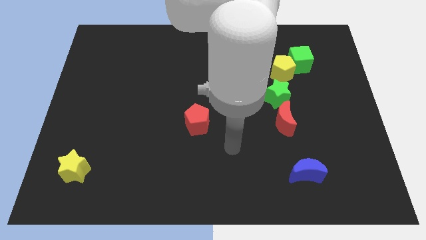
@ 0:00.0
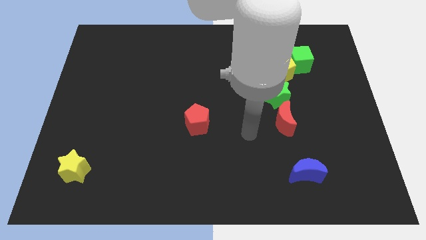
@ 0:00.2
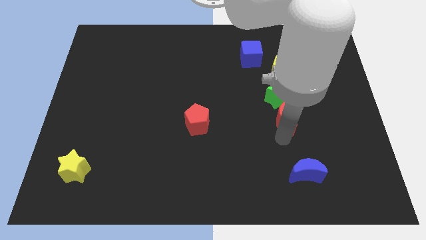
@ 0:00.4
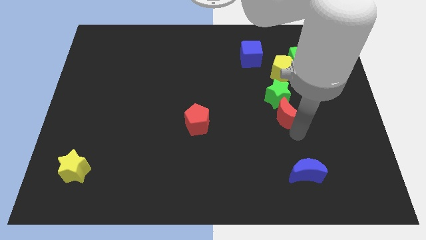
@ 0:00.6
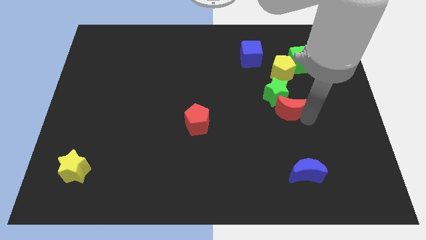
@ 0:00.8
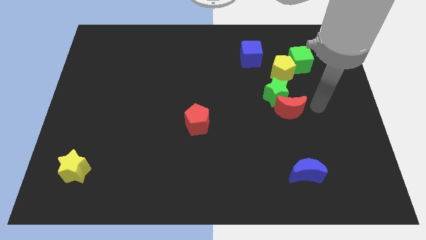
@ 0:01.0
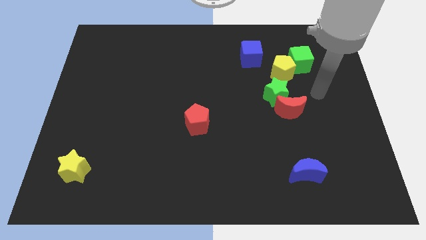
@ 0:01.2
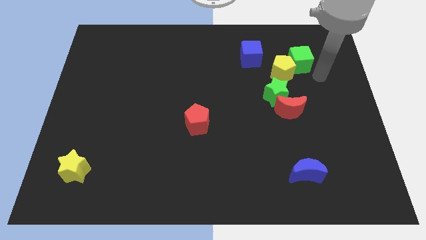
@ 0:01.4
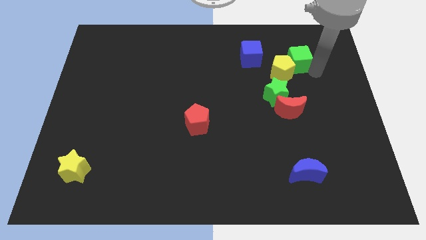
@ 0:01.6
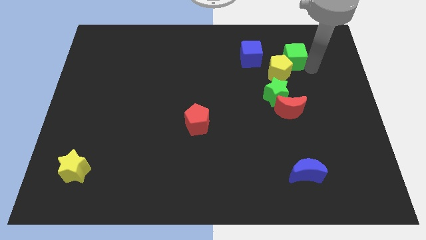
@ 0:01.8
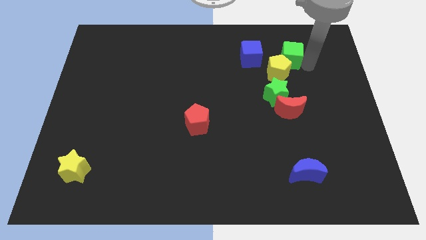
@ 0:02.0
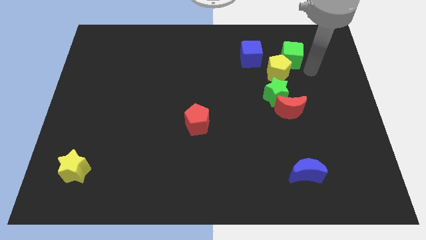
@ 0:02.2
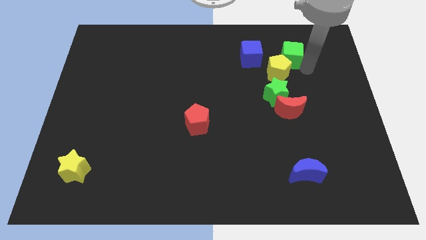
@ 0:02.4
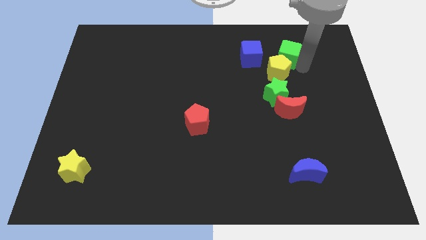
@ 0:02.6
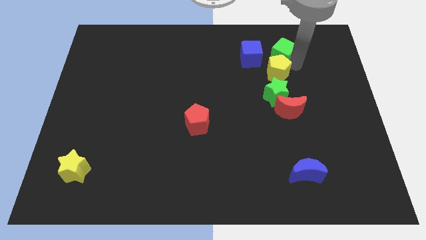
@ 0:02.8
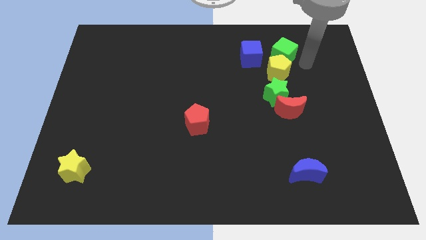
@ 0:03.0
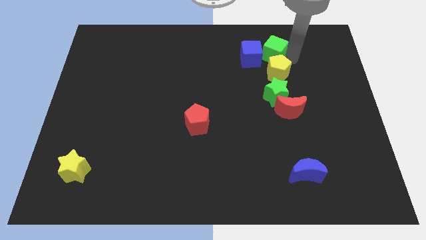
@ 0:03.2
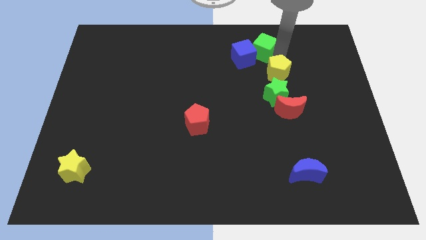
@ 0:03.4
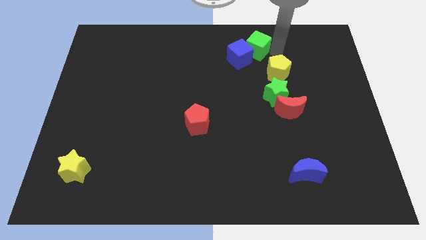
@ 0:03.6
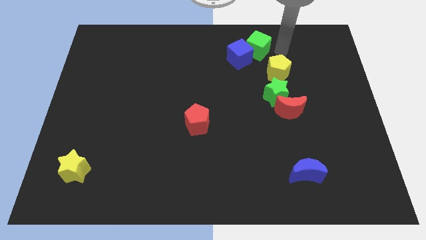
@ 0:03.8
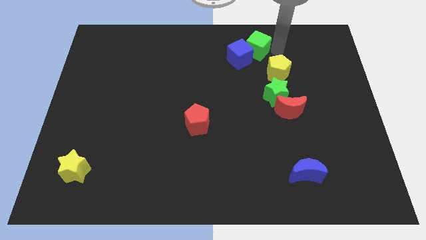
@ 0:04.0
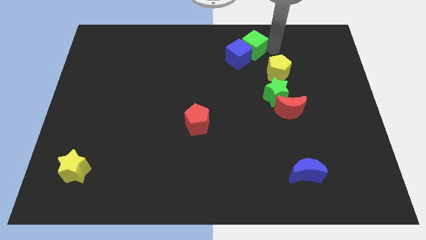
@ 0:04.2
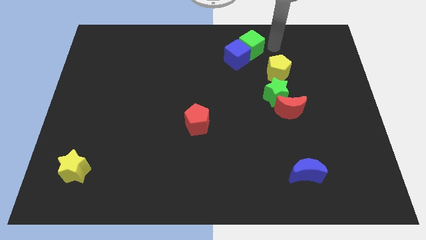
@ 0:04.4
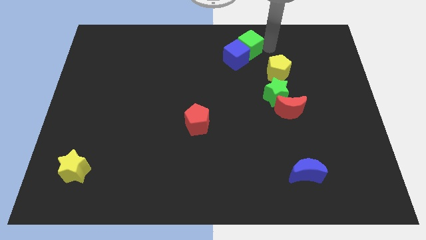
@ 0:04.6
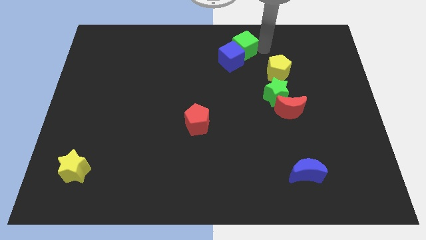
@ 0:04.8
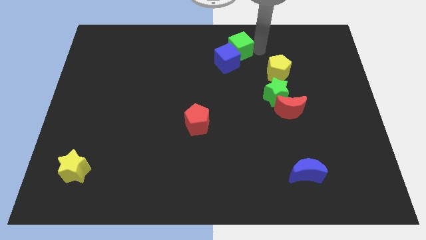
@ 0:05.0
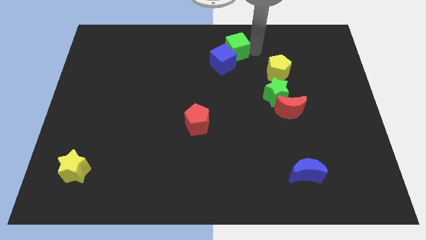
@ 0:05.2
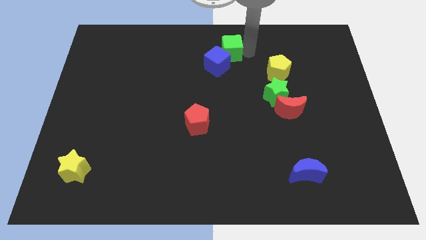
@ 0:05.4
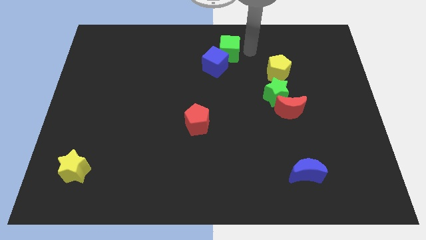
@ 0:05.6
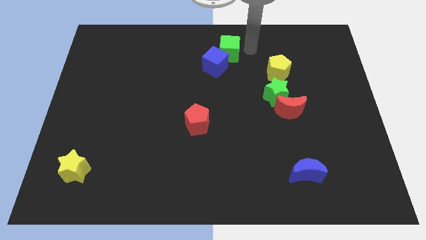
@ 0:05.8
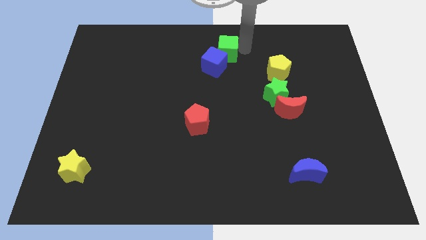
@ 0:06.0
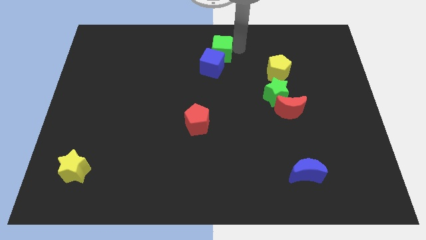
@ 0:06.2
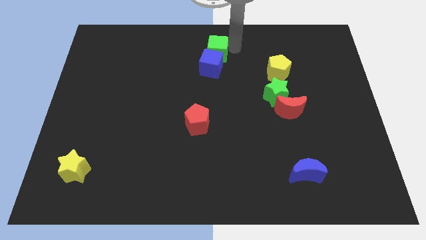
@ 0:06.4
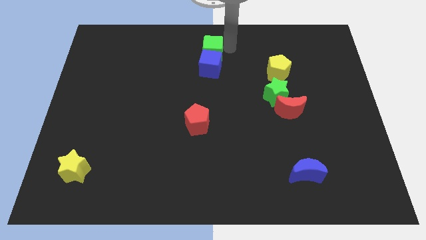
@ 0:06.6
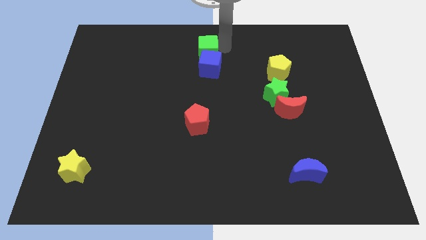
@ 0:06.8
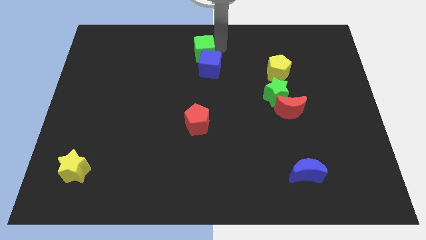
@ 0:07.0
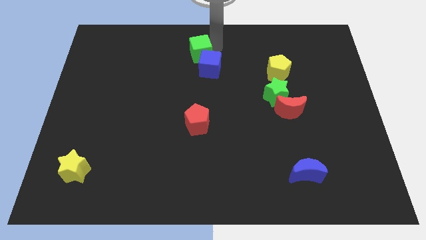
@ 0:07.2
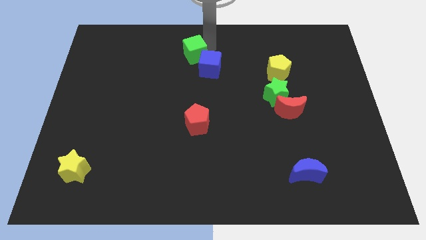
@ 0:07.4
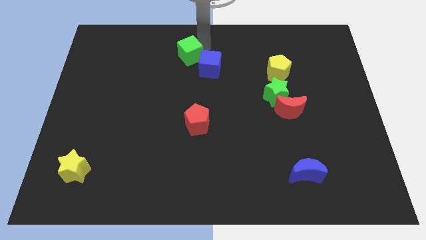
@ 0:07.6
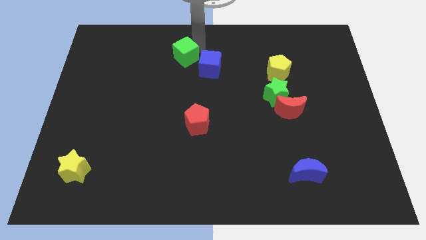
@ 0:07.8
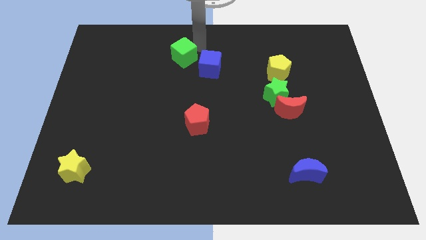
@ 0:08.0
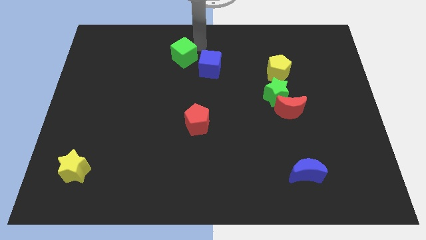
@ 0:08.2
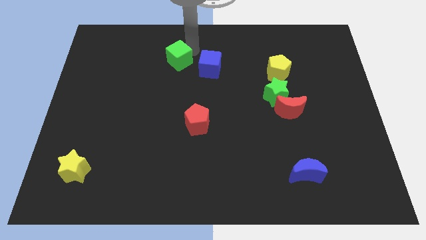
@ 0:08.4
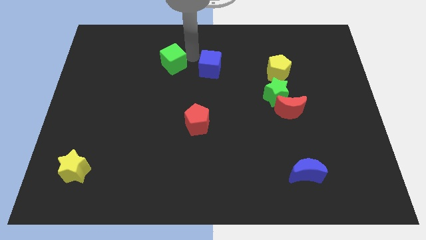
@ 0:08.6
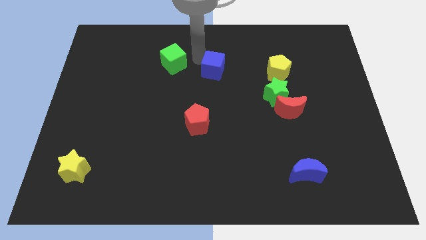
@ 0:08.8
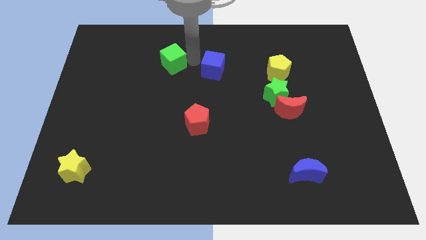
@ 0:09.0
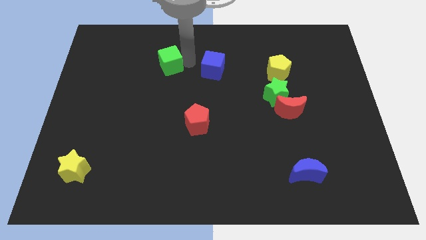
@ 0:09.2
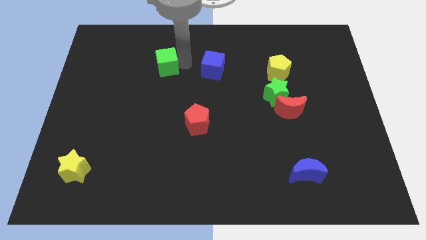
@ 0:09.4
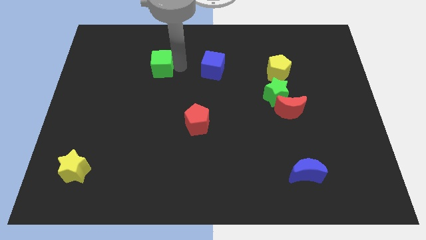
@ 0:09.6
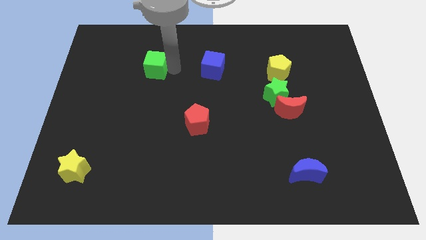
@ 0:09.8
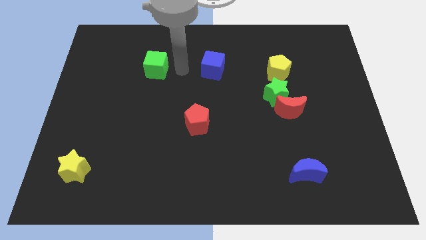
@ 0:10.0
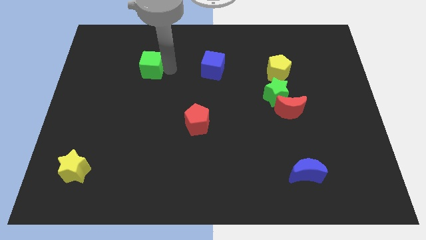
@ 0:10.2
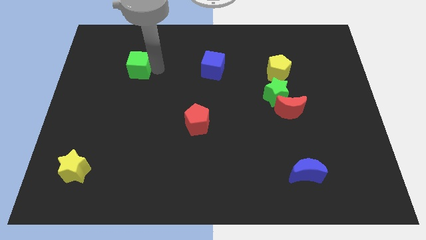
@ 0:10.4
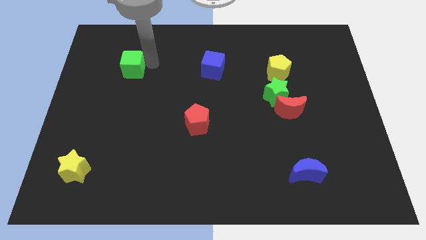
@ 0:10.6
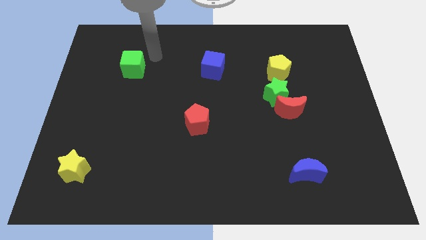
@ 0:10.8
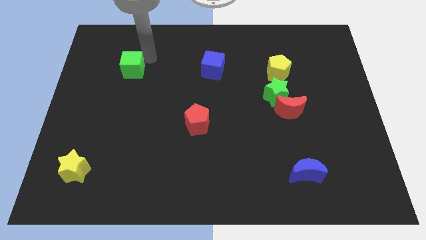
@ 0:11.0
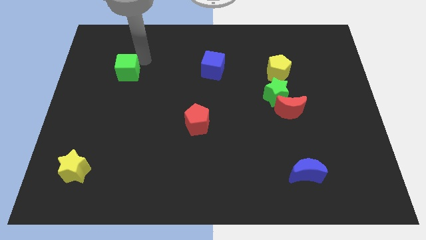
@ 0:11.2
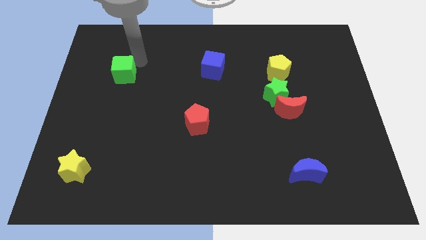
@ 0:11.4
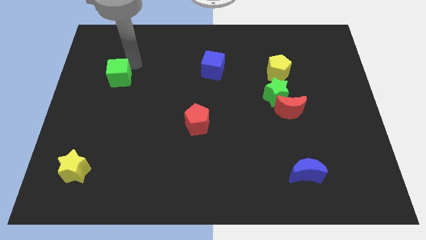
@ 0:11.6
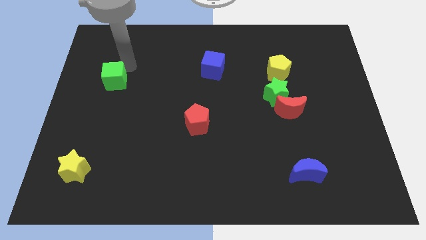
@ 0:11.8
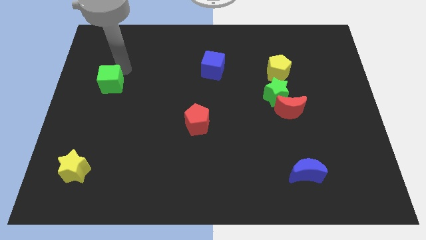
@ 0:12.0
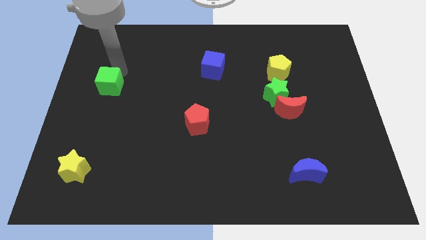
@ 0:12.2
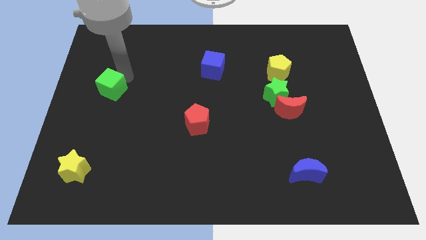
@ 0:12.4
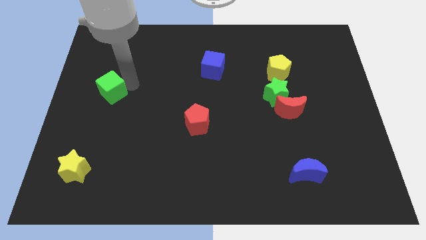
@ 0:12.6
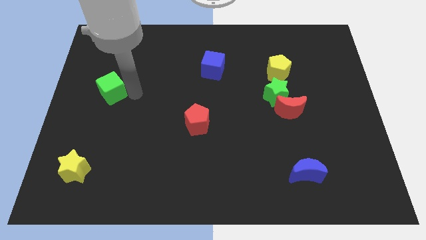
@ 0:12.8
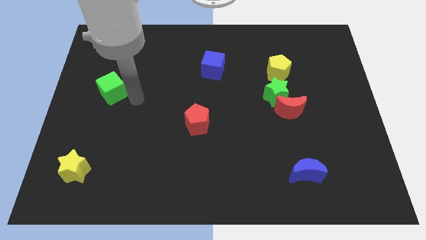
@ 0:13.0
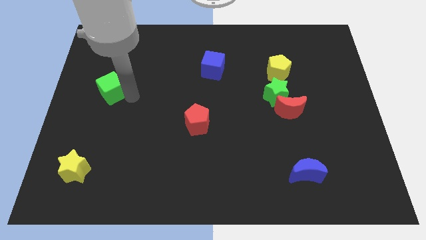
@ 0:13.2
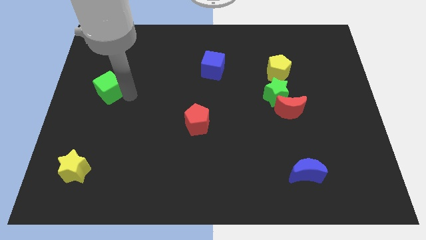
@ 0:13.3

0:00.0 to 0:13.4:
put the green cube to the center left

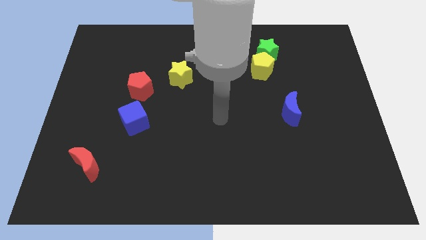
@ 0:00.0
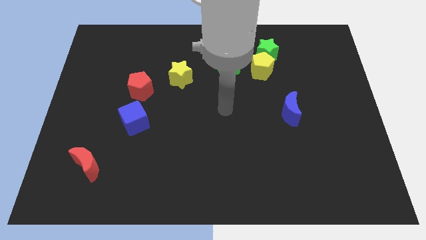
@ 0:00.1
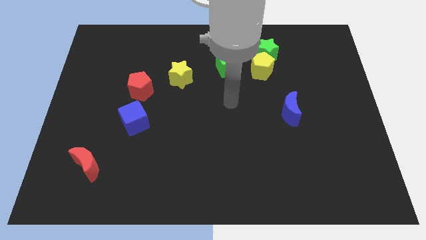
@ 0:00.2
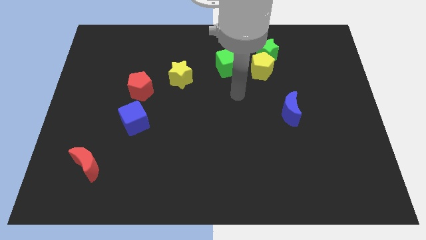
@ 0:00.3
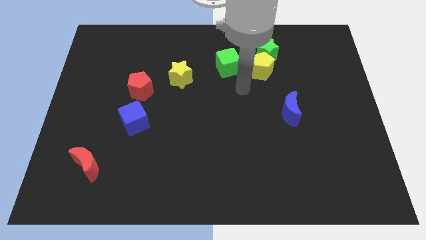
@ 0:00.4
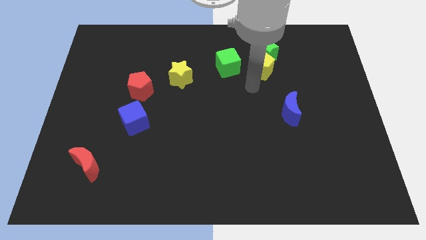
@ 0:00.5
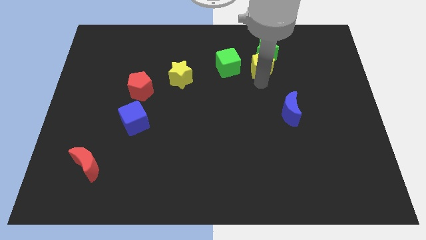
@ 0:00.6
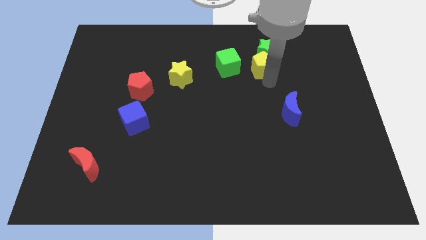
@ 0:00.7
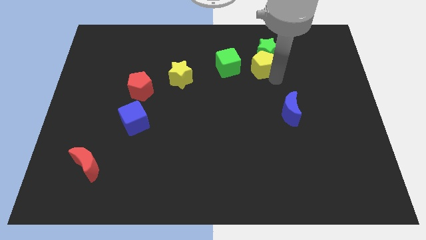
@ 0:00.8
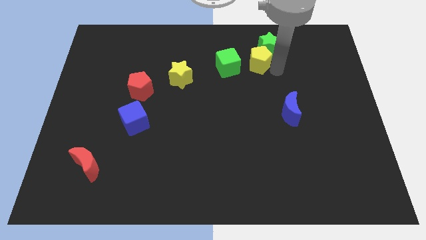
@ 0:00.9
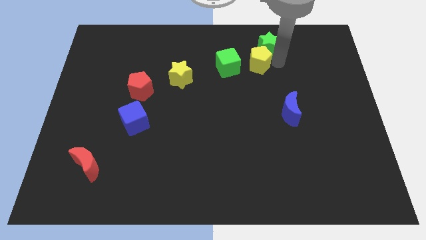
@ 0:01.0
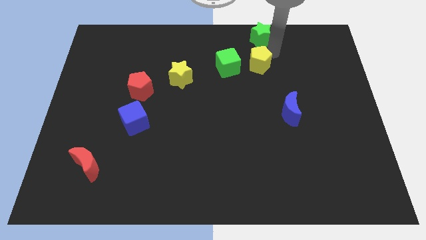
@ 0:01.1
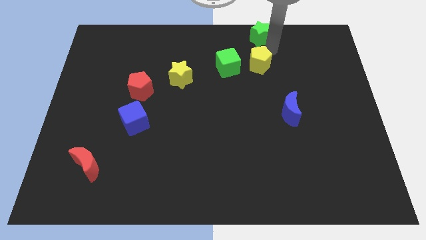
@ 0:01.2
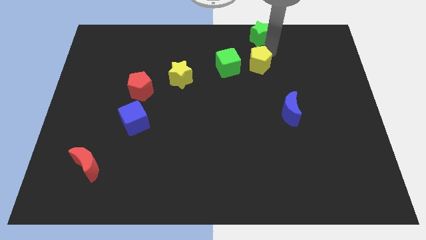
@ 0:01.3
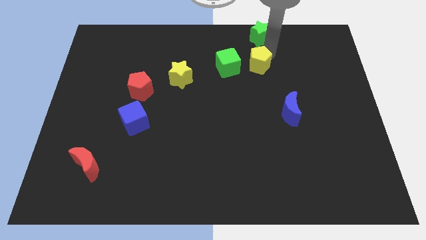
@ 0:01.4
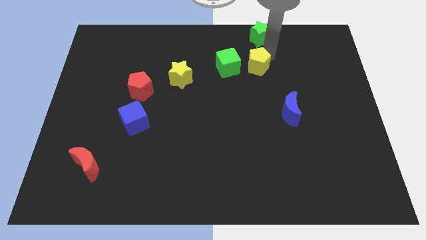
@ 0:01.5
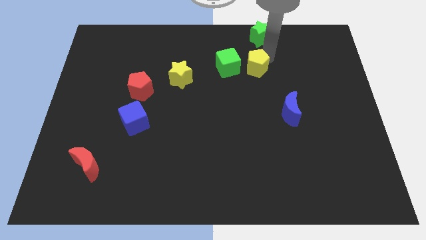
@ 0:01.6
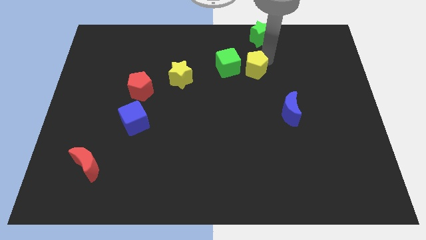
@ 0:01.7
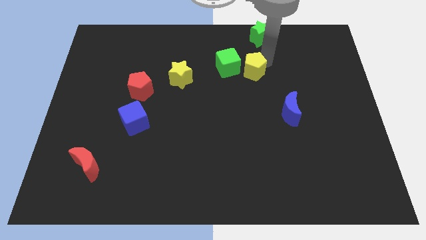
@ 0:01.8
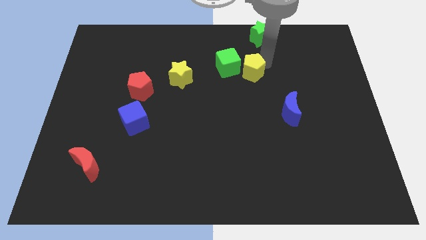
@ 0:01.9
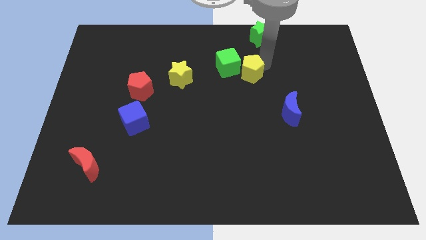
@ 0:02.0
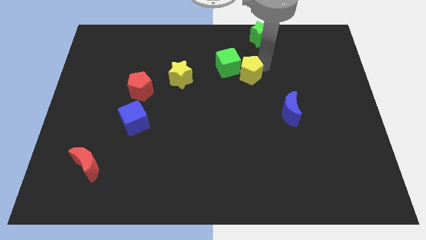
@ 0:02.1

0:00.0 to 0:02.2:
put the yellow pentagon to the middle
